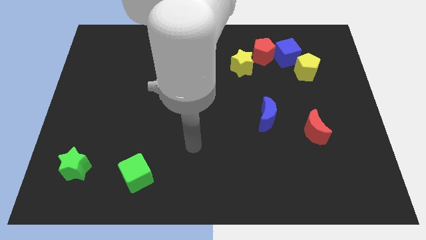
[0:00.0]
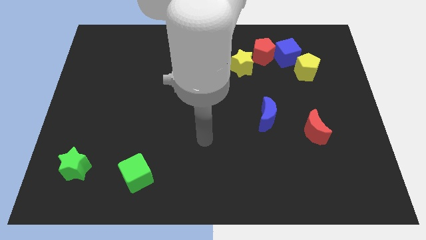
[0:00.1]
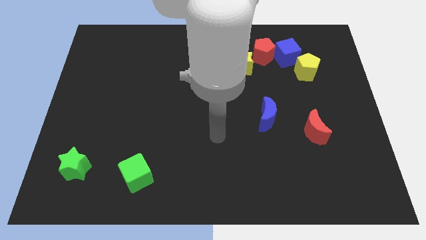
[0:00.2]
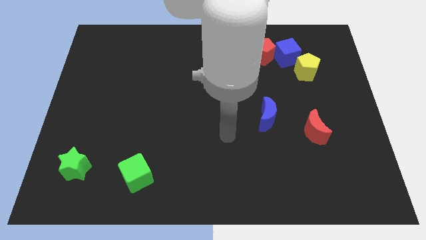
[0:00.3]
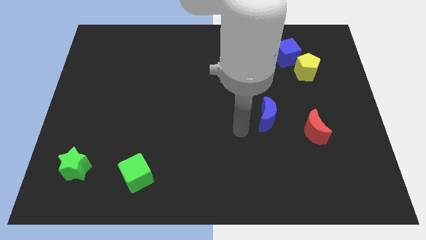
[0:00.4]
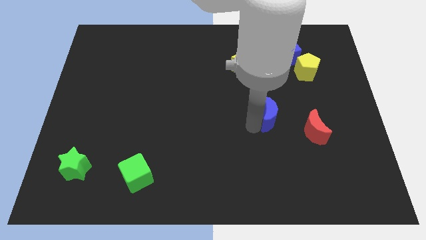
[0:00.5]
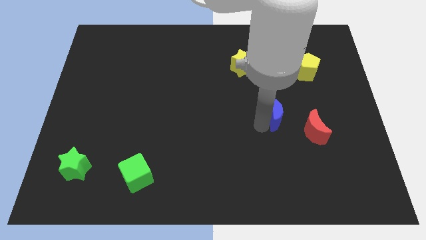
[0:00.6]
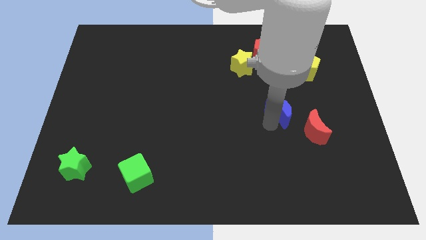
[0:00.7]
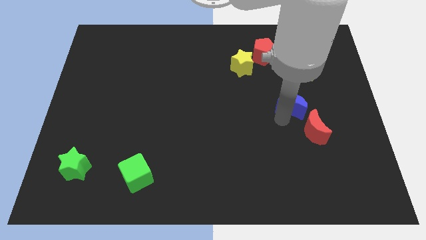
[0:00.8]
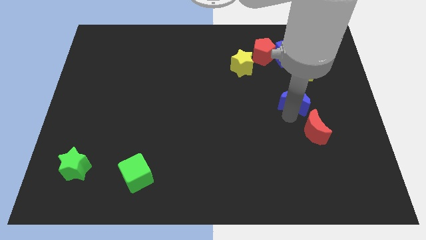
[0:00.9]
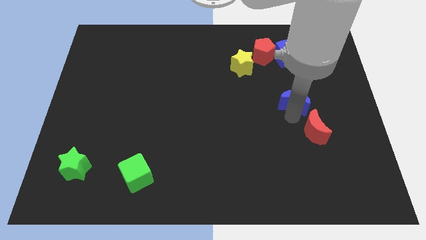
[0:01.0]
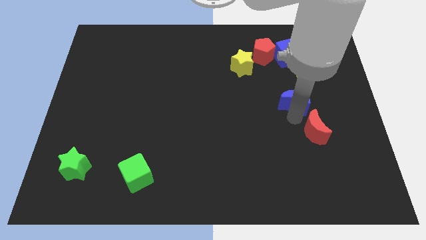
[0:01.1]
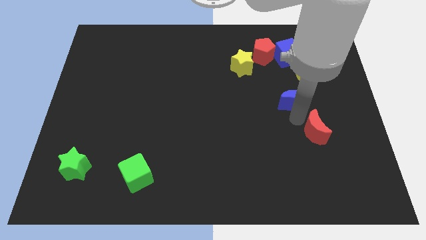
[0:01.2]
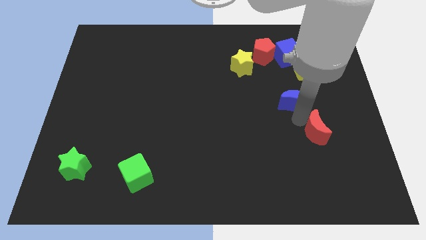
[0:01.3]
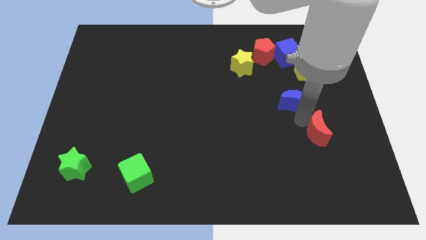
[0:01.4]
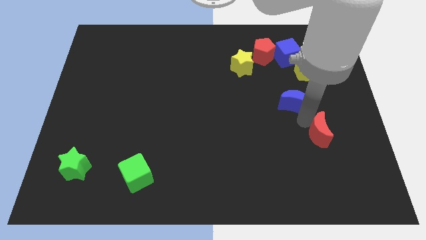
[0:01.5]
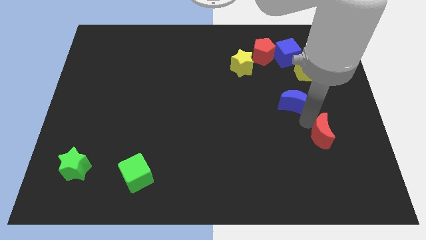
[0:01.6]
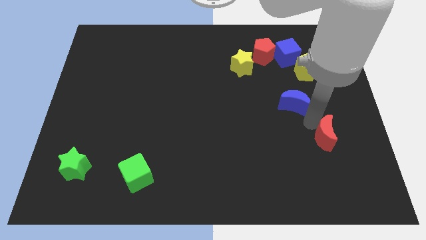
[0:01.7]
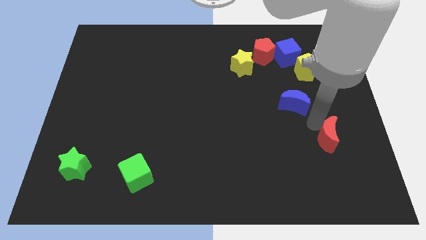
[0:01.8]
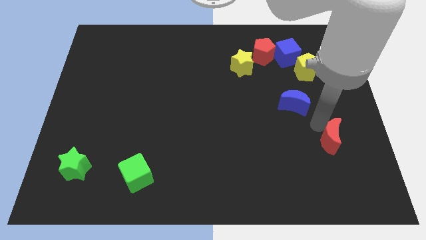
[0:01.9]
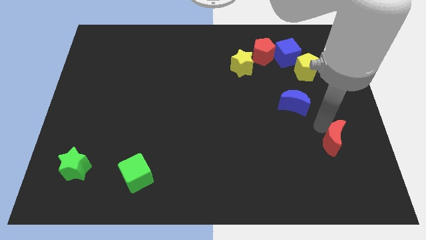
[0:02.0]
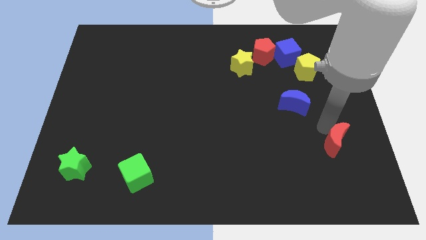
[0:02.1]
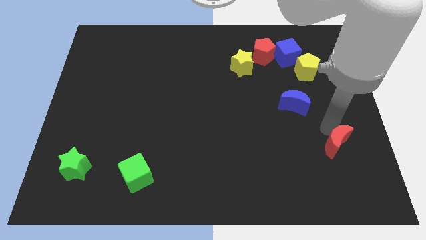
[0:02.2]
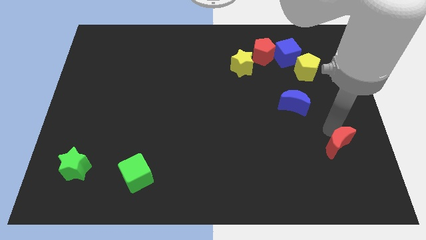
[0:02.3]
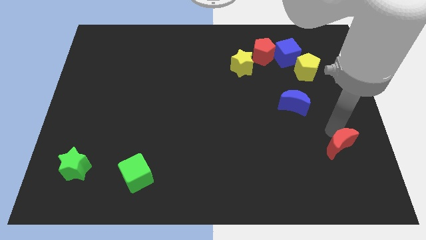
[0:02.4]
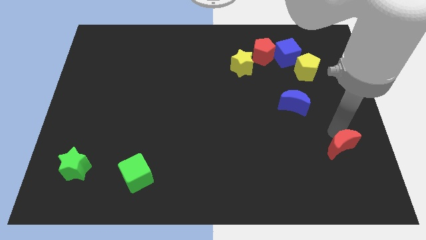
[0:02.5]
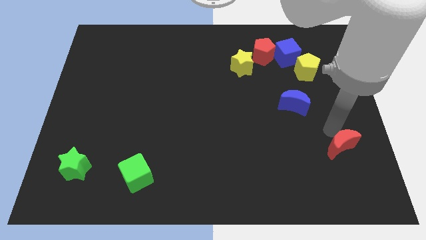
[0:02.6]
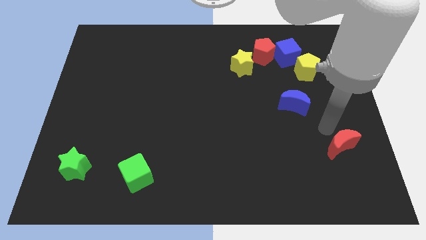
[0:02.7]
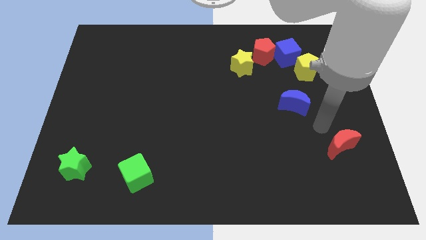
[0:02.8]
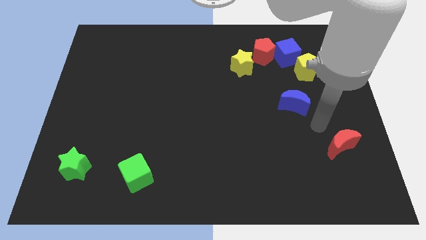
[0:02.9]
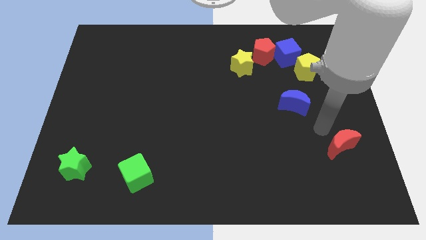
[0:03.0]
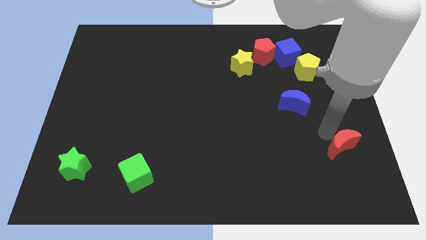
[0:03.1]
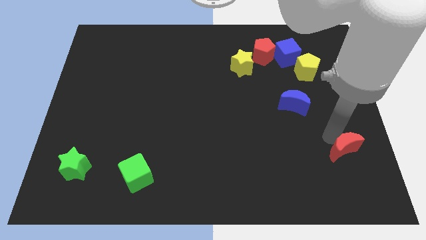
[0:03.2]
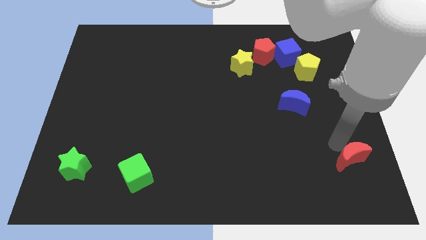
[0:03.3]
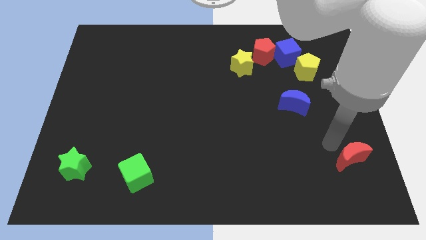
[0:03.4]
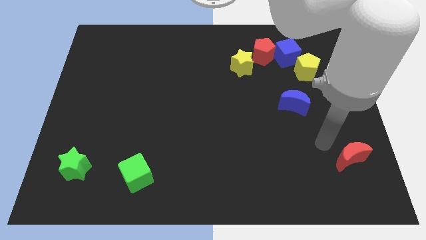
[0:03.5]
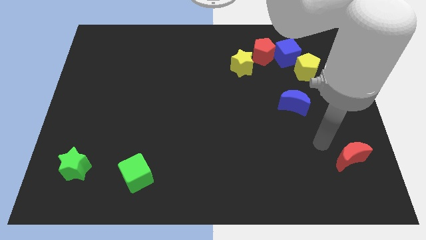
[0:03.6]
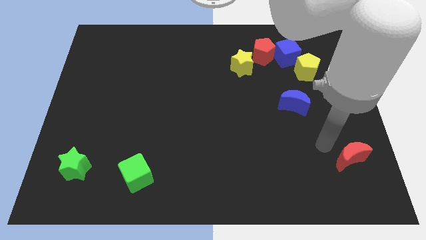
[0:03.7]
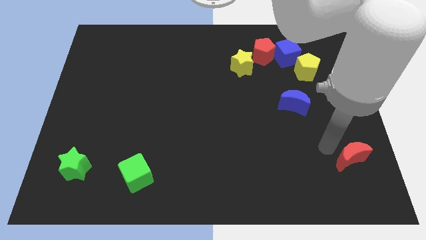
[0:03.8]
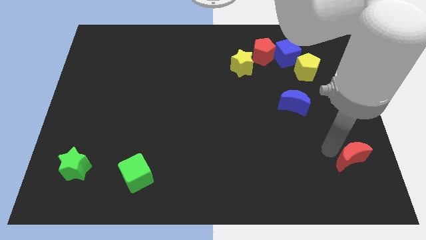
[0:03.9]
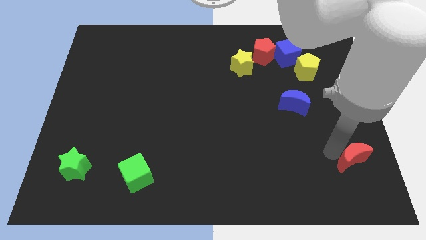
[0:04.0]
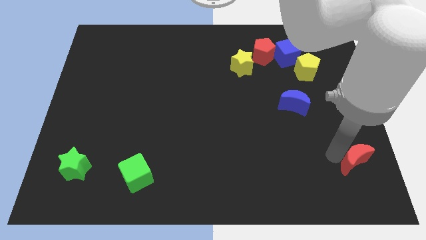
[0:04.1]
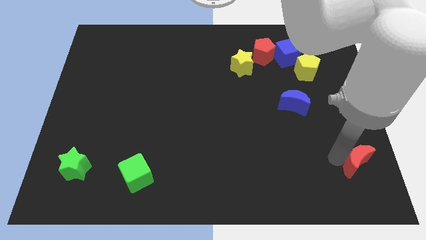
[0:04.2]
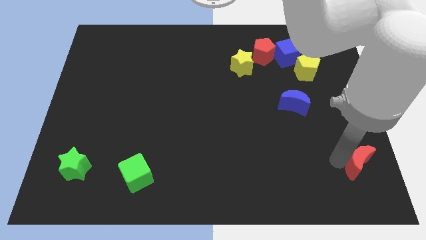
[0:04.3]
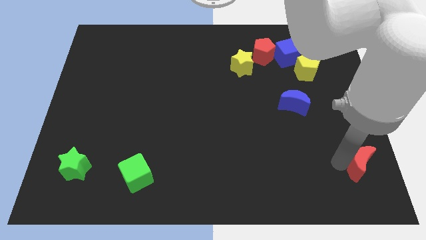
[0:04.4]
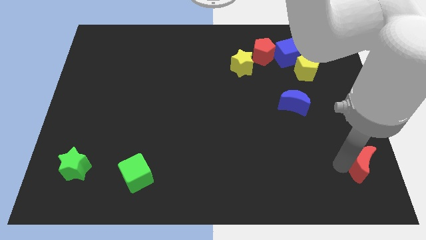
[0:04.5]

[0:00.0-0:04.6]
put the red moon to the bottom right corner

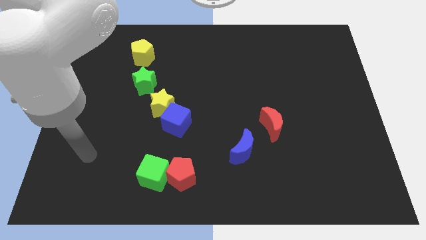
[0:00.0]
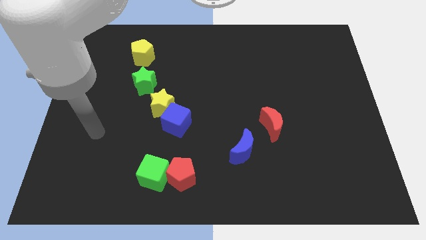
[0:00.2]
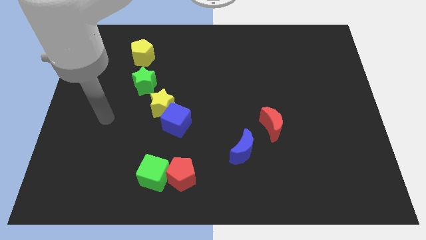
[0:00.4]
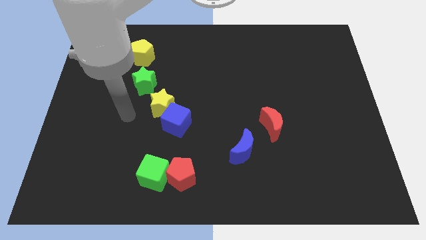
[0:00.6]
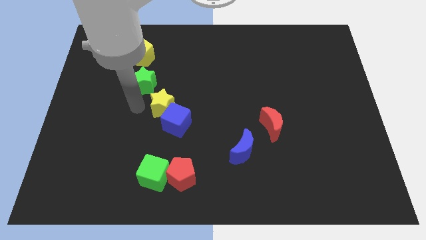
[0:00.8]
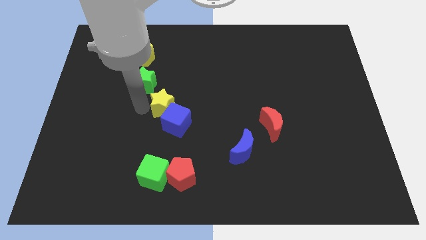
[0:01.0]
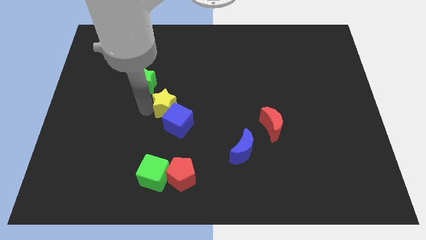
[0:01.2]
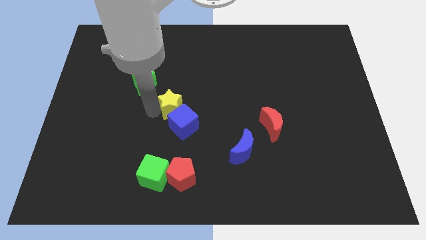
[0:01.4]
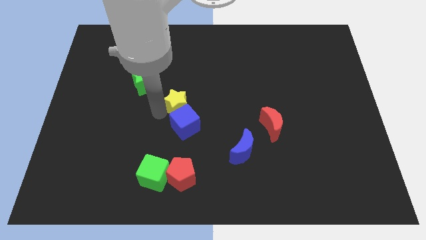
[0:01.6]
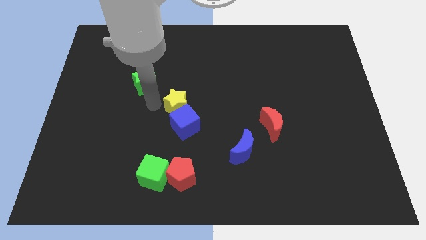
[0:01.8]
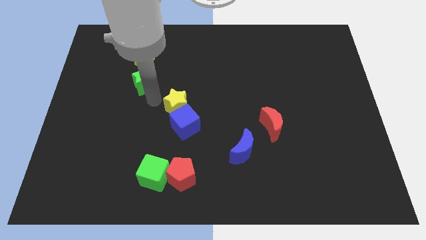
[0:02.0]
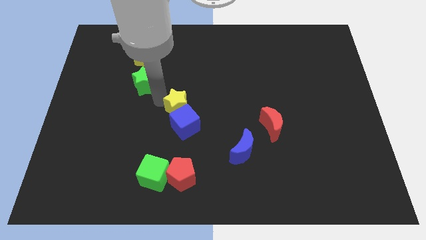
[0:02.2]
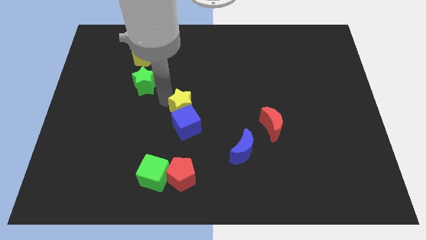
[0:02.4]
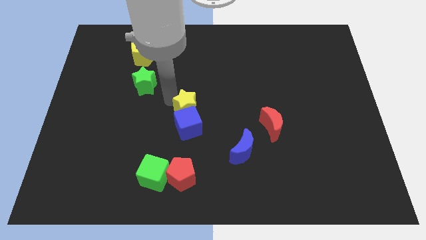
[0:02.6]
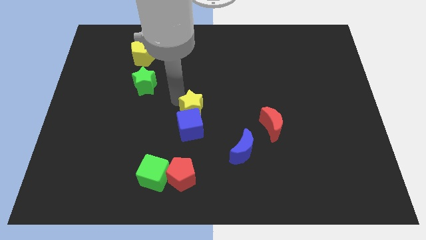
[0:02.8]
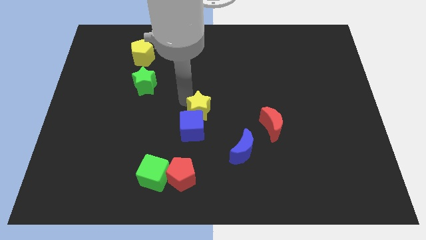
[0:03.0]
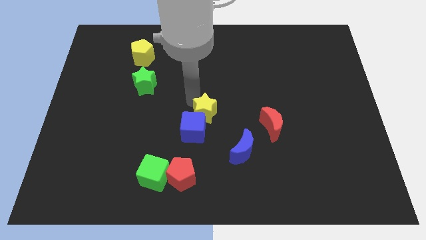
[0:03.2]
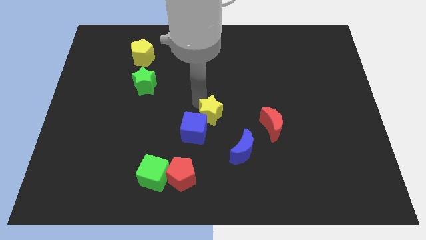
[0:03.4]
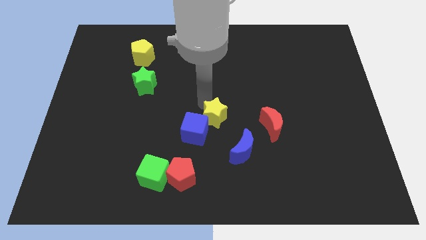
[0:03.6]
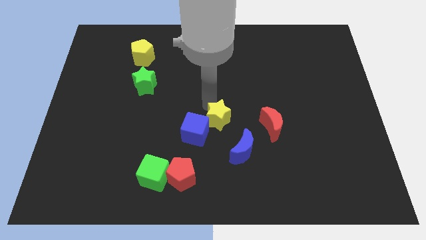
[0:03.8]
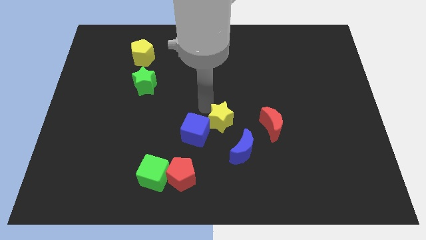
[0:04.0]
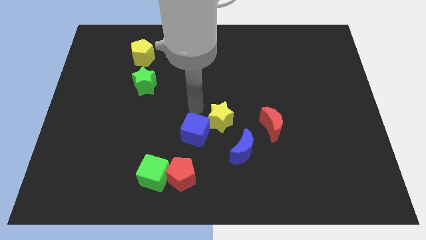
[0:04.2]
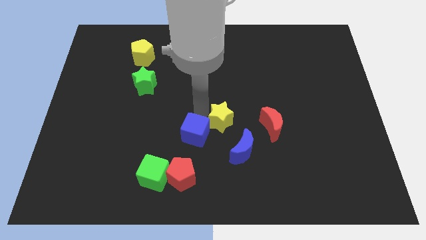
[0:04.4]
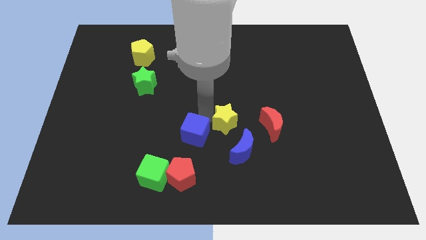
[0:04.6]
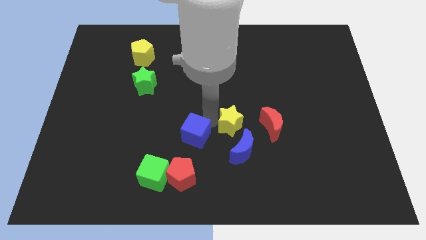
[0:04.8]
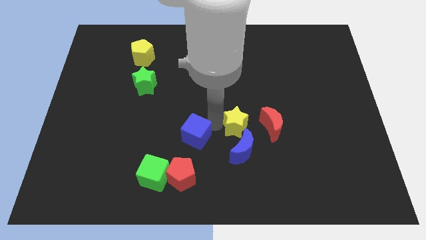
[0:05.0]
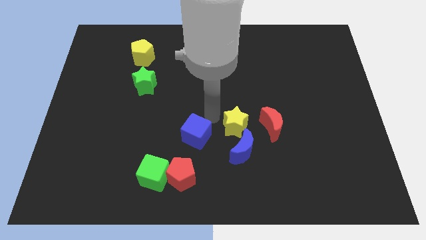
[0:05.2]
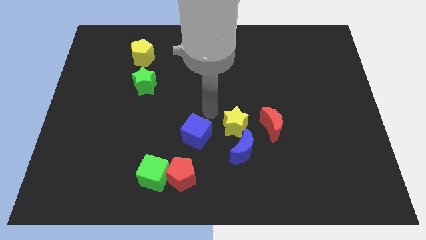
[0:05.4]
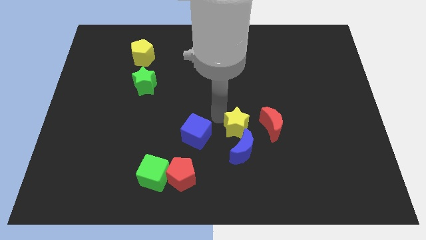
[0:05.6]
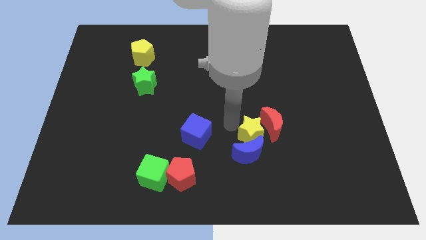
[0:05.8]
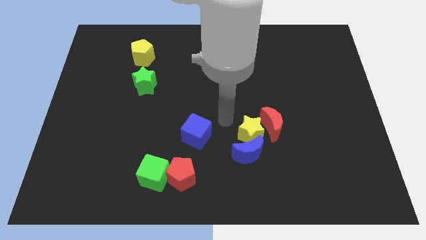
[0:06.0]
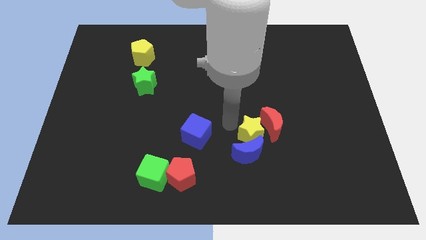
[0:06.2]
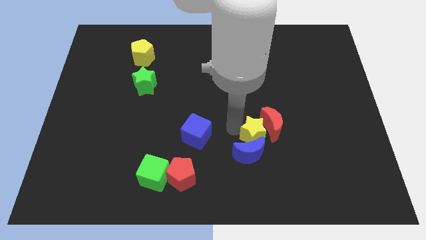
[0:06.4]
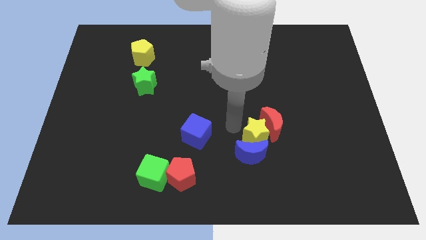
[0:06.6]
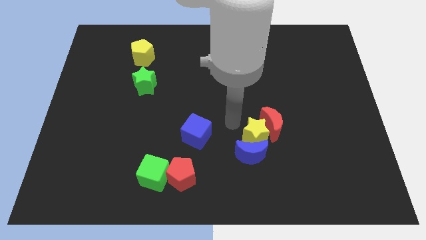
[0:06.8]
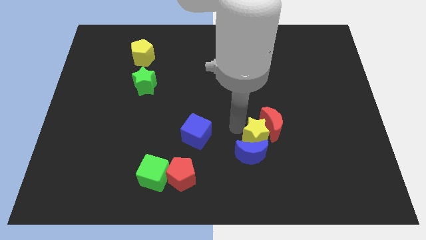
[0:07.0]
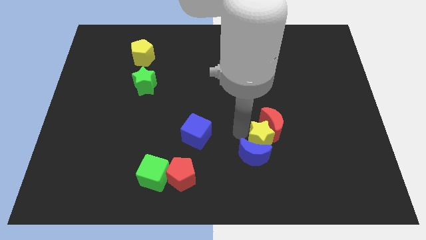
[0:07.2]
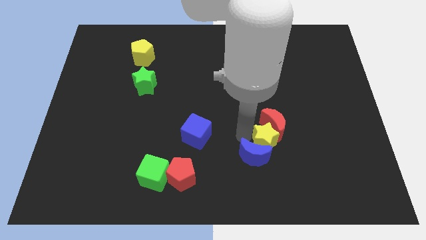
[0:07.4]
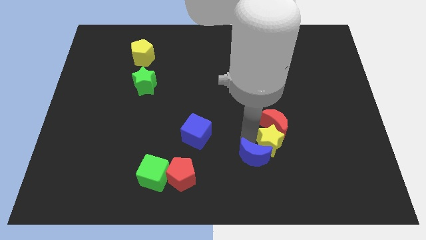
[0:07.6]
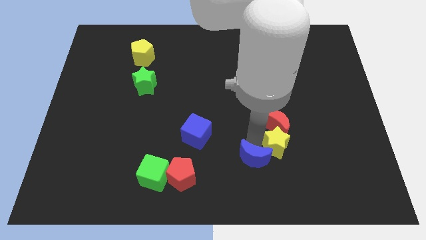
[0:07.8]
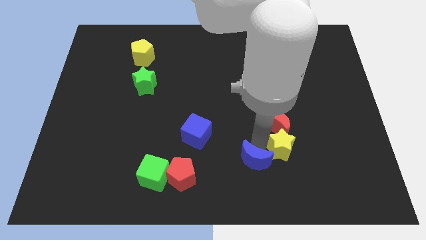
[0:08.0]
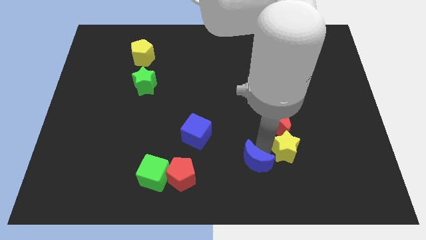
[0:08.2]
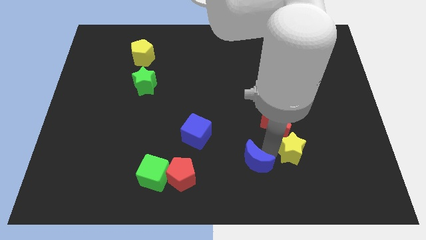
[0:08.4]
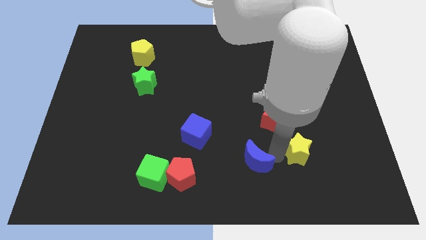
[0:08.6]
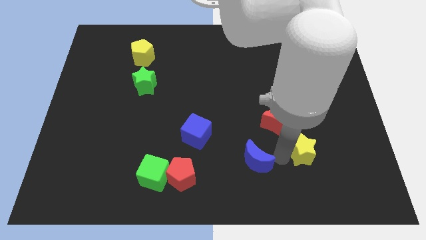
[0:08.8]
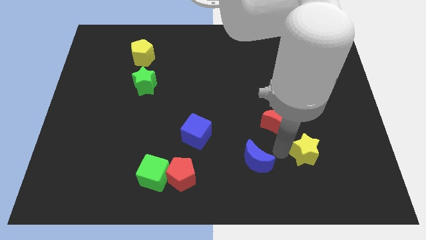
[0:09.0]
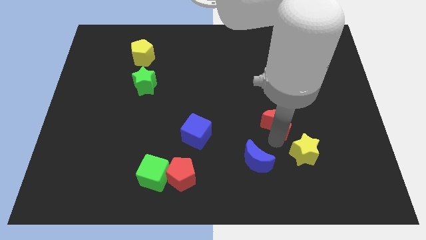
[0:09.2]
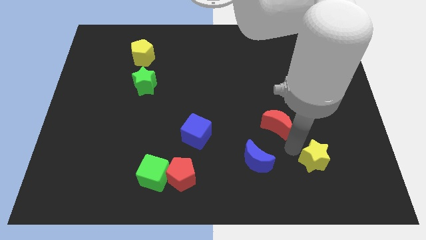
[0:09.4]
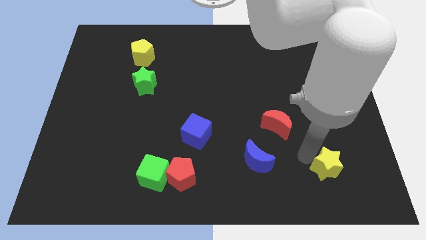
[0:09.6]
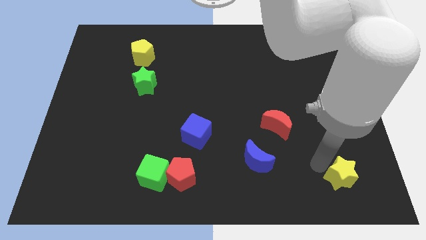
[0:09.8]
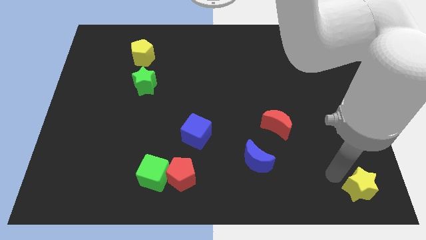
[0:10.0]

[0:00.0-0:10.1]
put the yellow star to the bottom right
